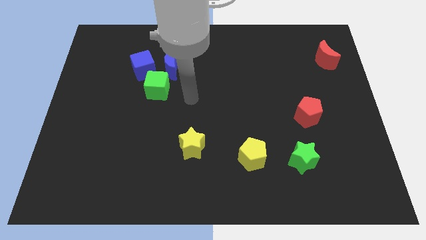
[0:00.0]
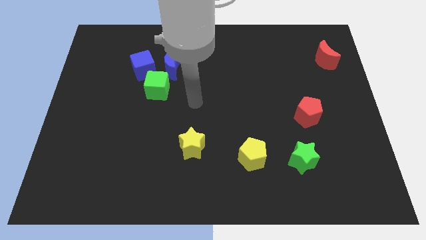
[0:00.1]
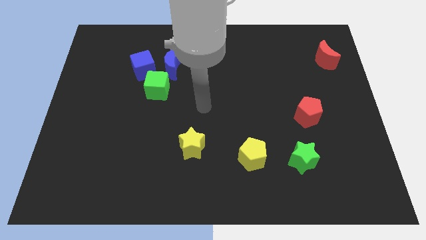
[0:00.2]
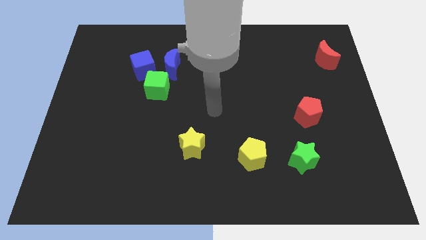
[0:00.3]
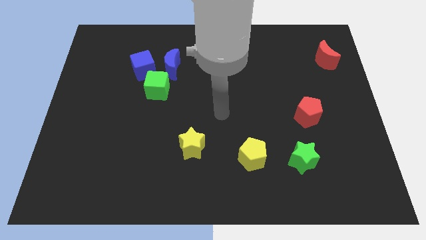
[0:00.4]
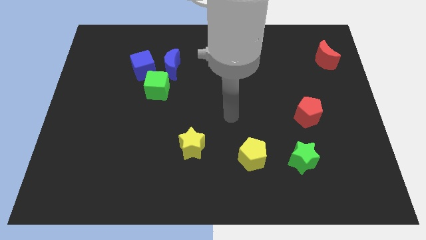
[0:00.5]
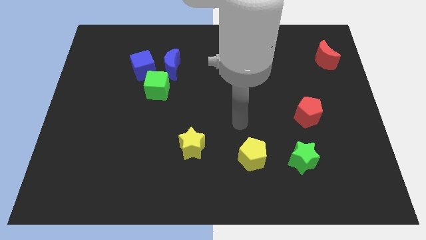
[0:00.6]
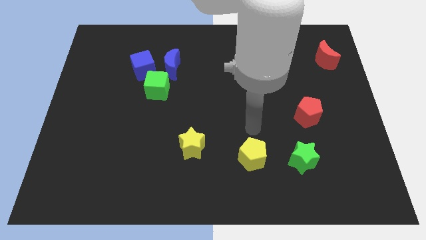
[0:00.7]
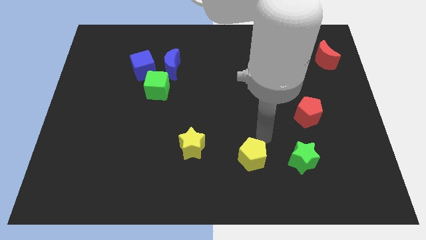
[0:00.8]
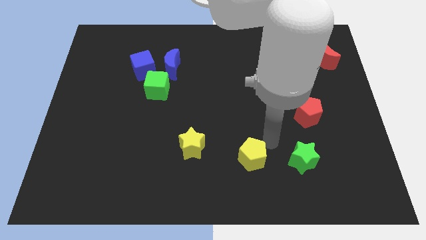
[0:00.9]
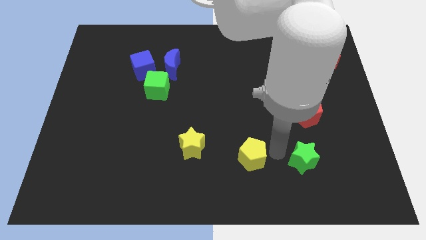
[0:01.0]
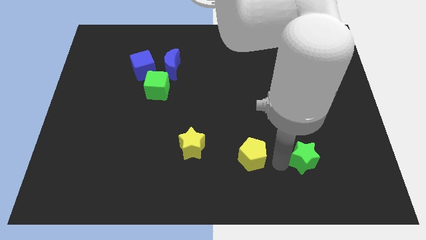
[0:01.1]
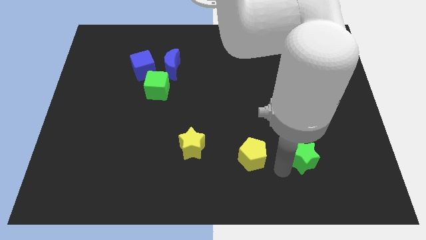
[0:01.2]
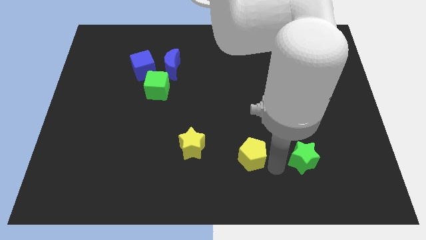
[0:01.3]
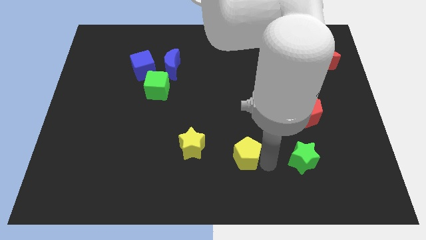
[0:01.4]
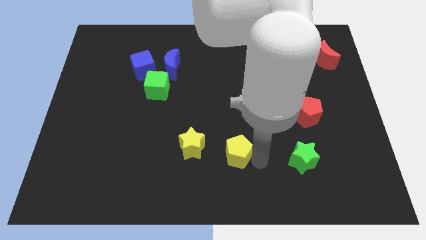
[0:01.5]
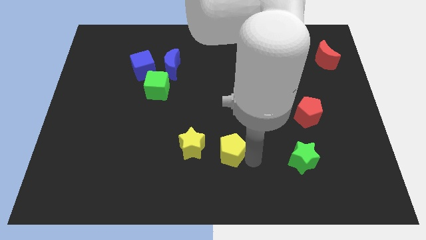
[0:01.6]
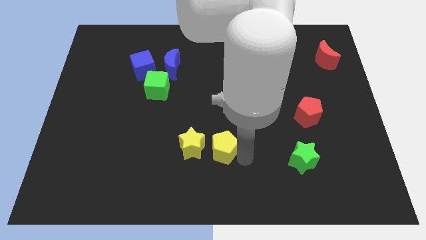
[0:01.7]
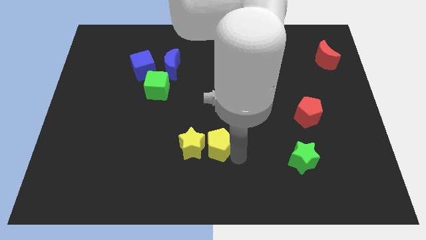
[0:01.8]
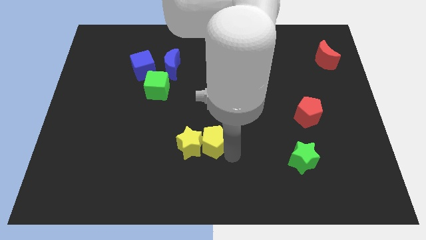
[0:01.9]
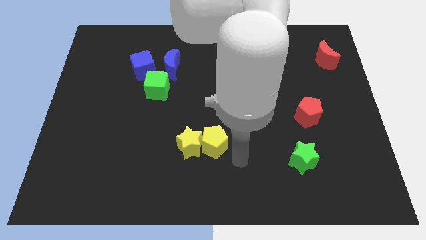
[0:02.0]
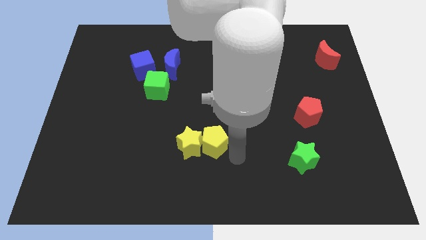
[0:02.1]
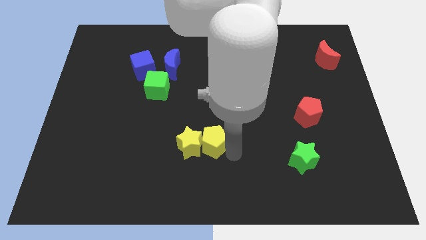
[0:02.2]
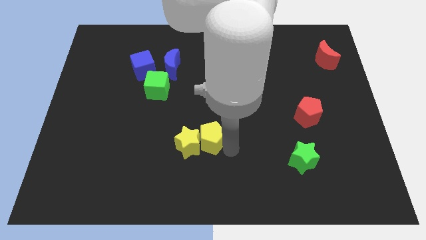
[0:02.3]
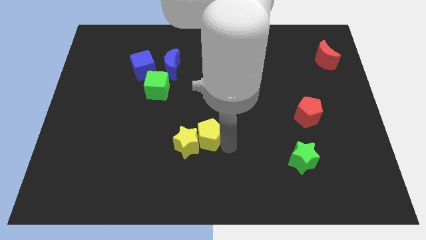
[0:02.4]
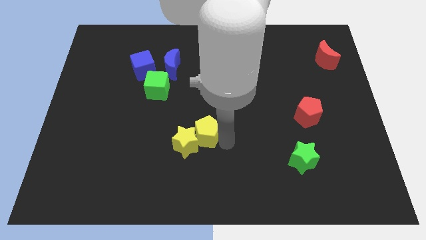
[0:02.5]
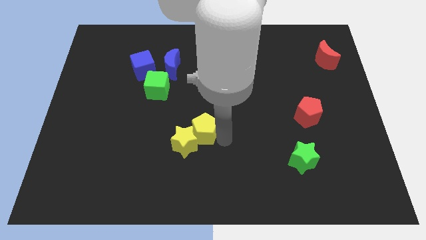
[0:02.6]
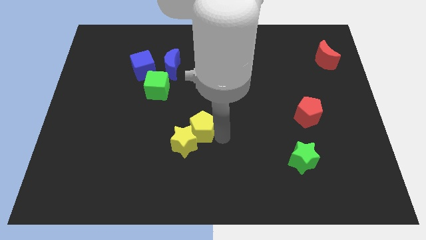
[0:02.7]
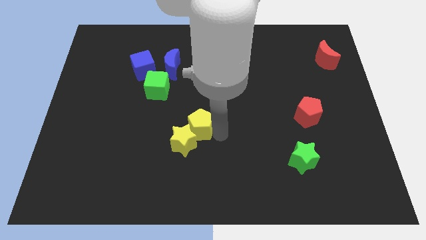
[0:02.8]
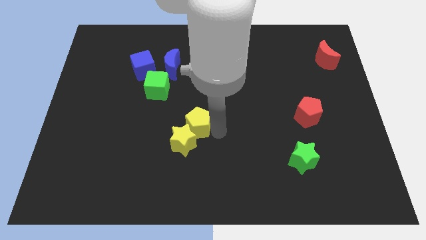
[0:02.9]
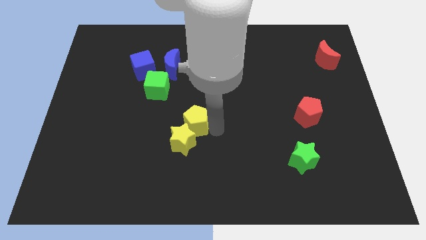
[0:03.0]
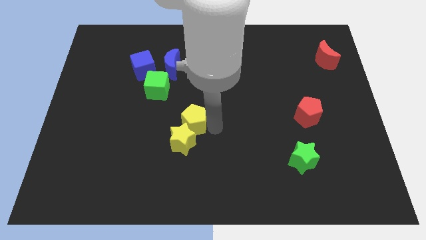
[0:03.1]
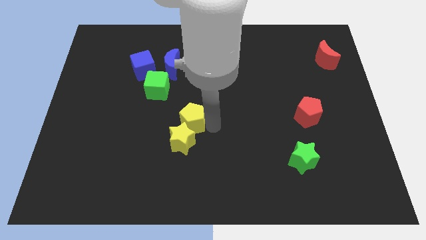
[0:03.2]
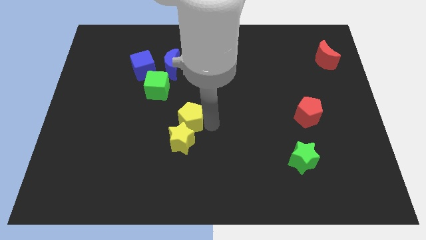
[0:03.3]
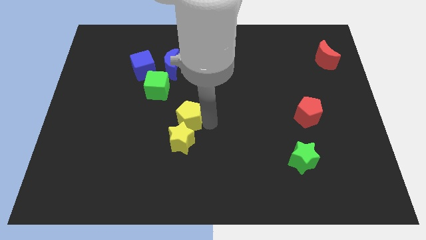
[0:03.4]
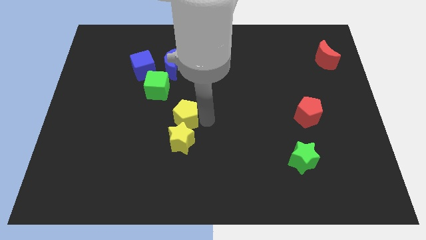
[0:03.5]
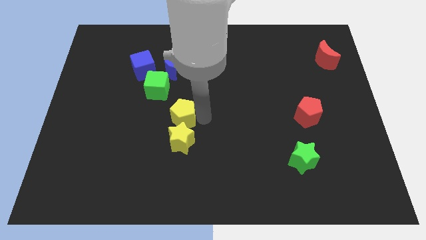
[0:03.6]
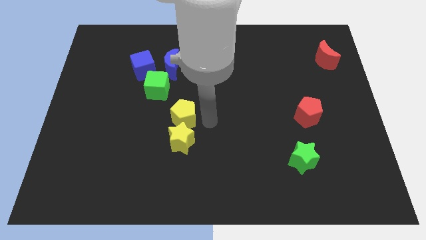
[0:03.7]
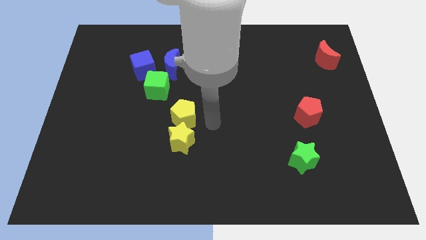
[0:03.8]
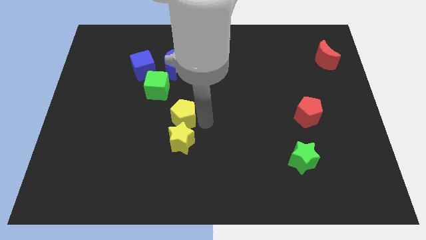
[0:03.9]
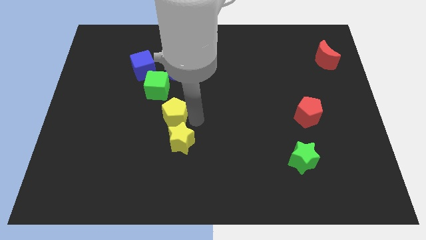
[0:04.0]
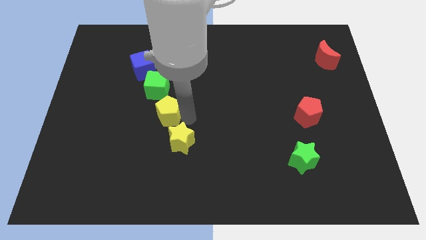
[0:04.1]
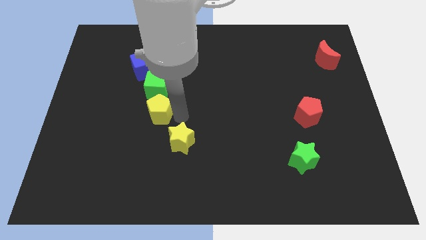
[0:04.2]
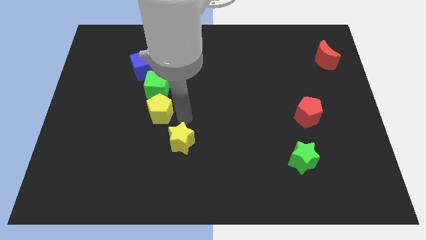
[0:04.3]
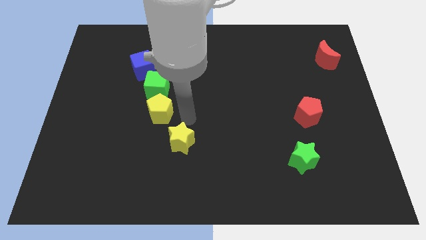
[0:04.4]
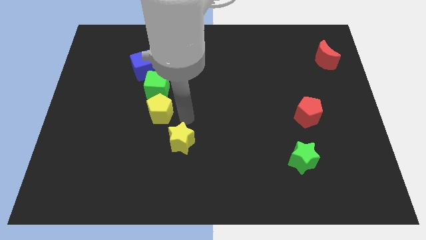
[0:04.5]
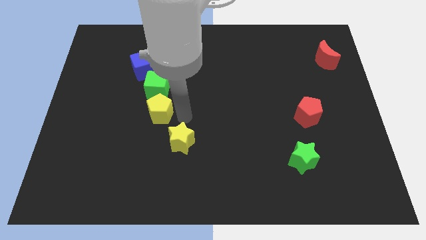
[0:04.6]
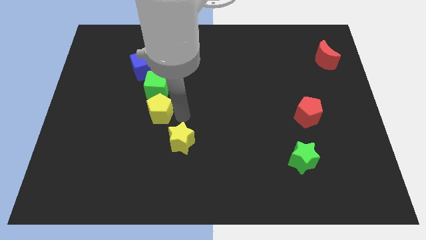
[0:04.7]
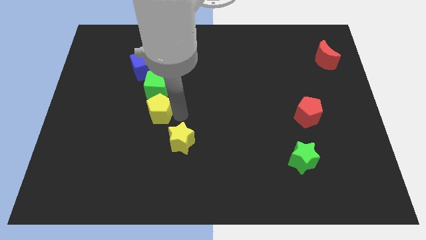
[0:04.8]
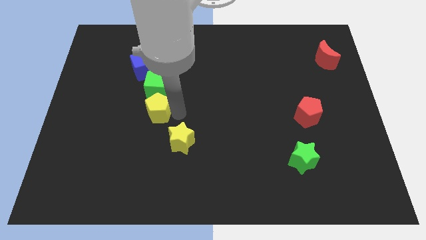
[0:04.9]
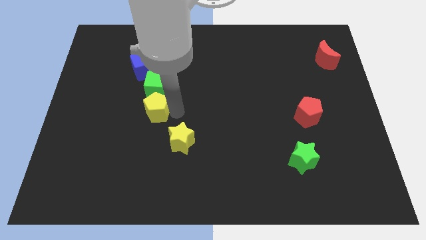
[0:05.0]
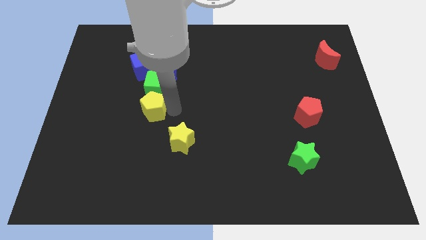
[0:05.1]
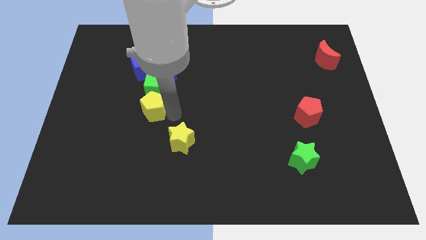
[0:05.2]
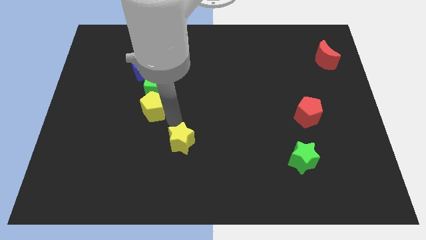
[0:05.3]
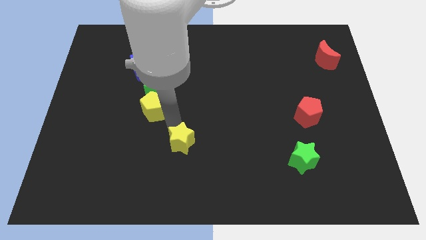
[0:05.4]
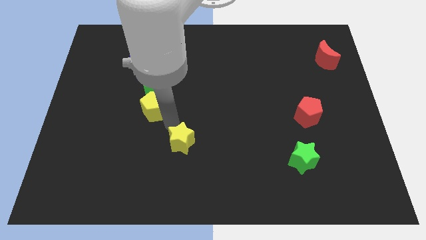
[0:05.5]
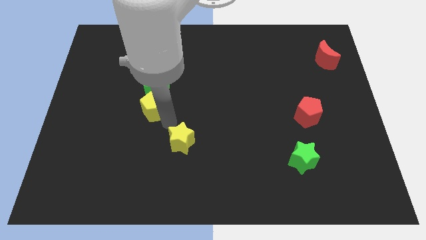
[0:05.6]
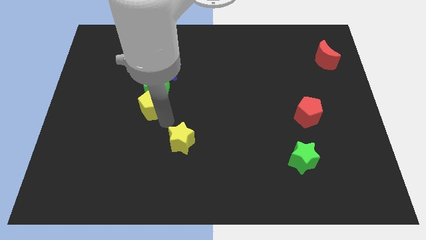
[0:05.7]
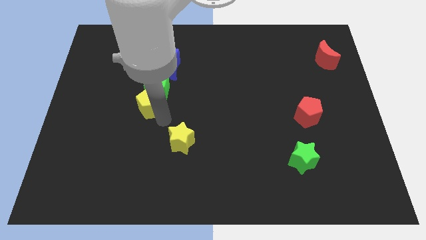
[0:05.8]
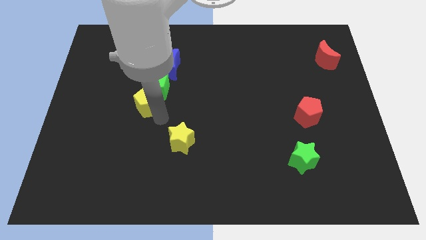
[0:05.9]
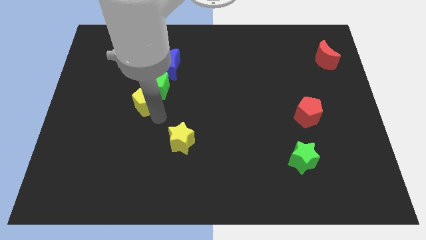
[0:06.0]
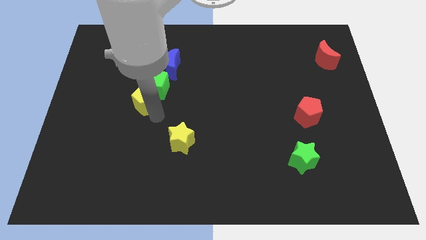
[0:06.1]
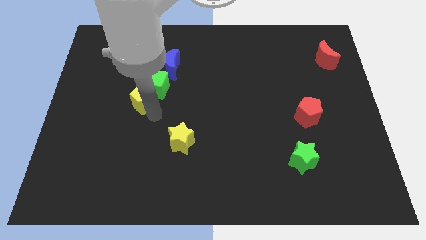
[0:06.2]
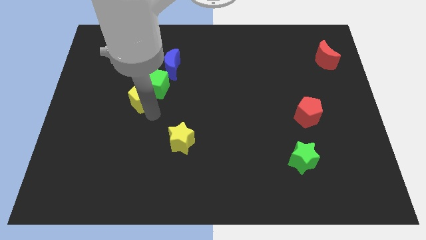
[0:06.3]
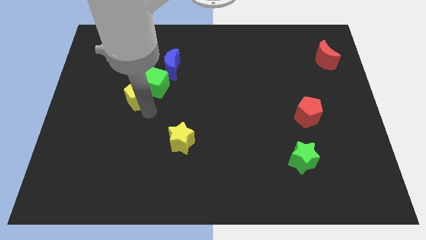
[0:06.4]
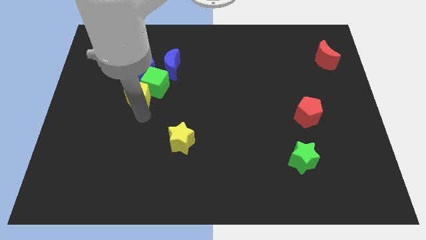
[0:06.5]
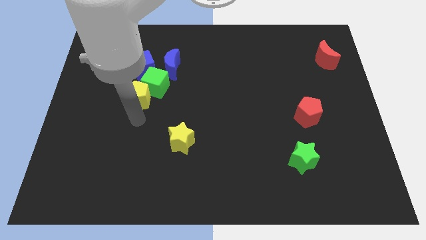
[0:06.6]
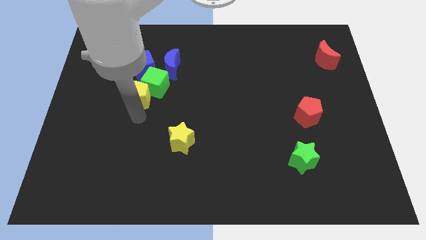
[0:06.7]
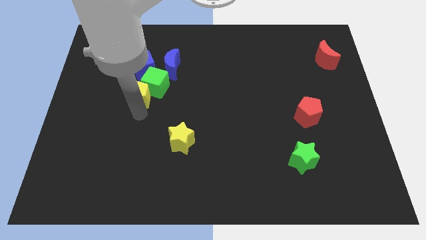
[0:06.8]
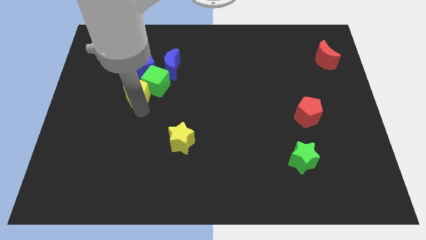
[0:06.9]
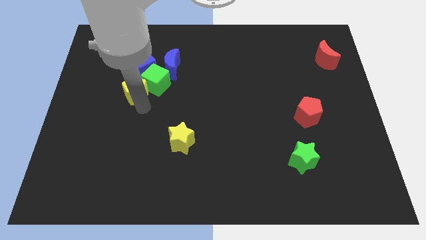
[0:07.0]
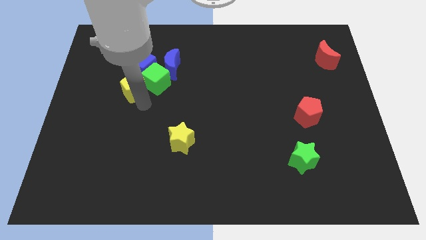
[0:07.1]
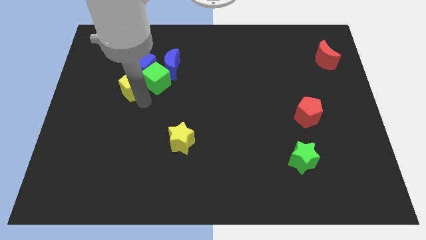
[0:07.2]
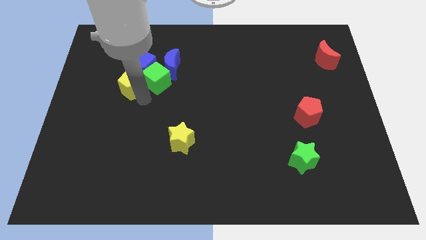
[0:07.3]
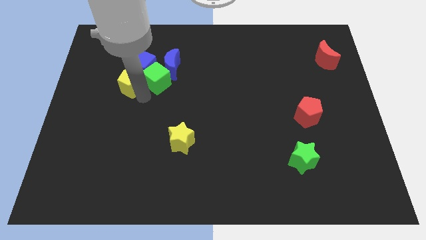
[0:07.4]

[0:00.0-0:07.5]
slide the yellow pentagon close to the blue cube
